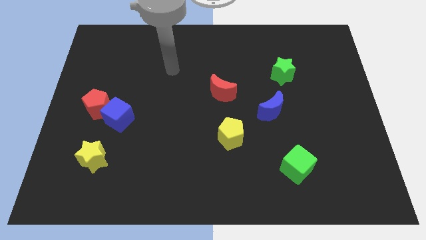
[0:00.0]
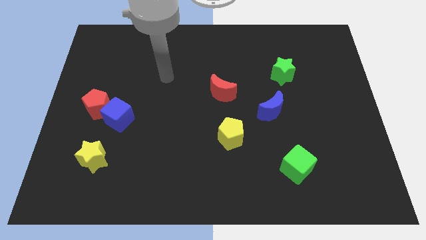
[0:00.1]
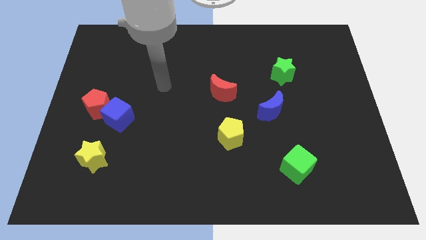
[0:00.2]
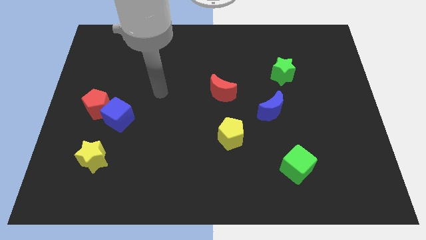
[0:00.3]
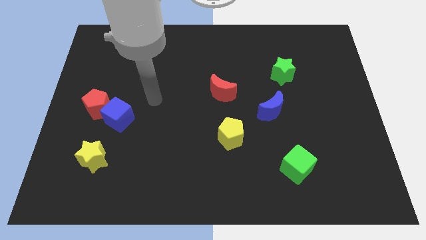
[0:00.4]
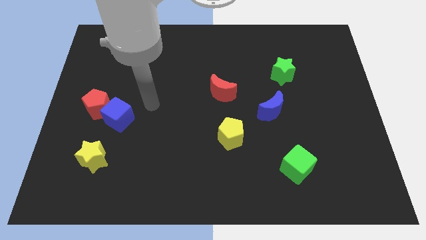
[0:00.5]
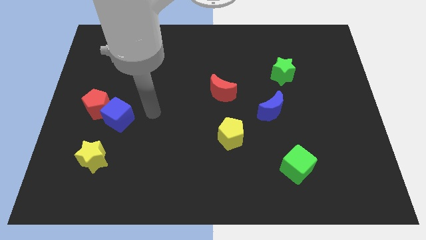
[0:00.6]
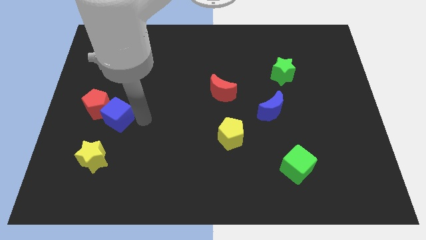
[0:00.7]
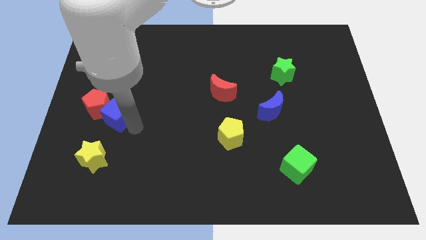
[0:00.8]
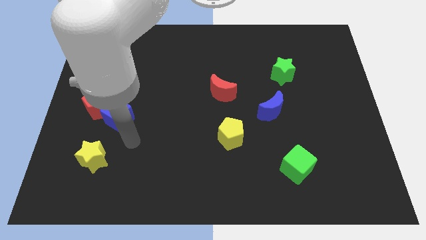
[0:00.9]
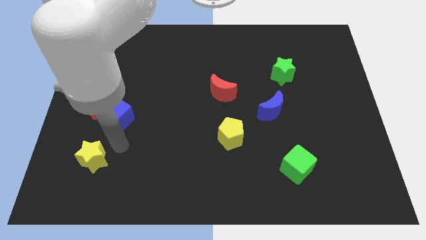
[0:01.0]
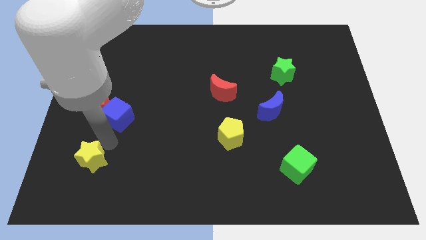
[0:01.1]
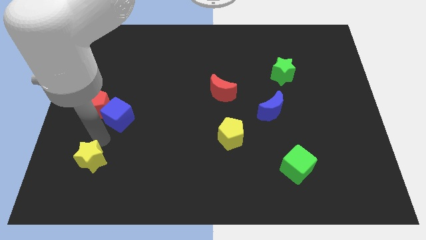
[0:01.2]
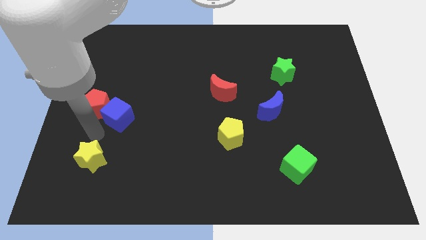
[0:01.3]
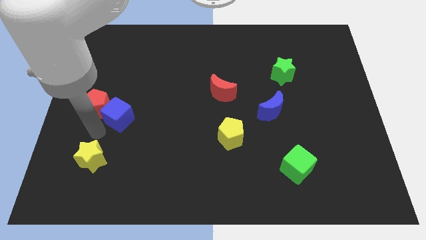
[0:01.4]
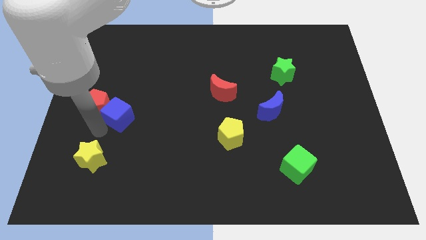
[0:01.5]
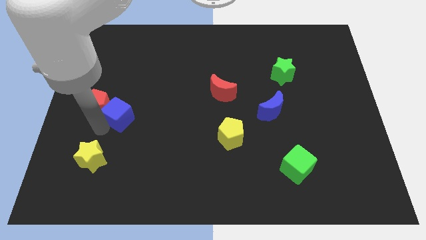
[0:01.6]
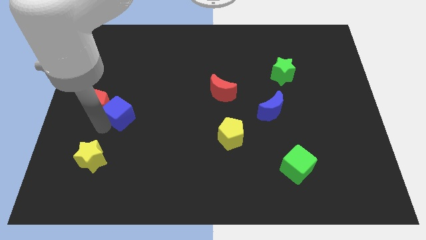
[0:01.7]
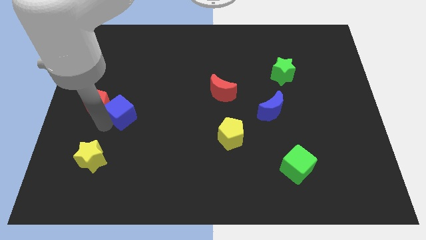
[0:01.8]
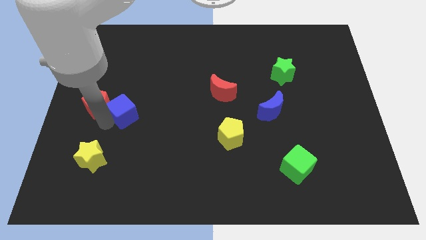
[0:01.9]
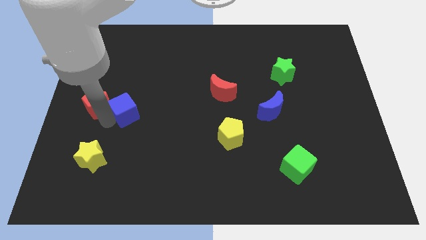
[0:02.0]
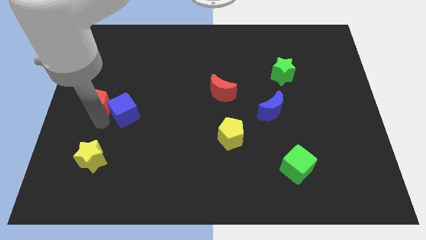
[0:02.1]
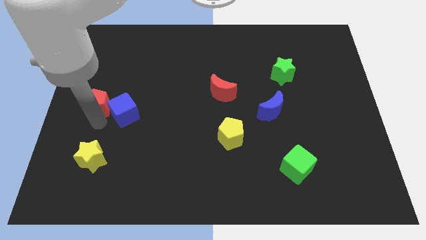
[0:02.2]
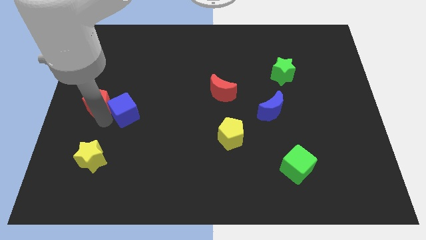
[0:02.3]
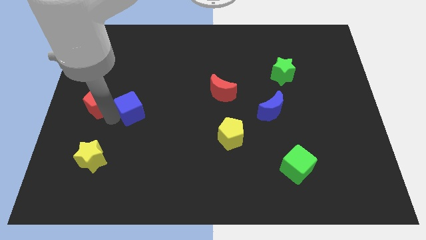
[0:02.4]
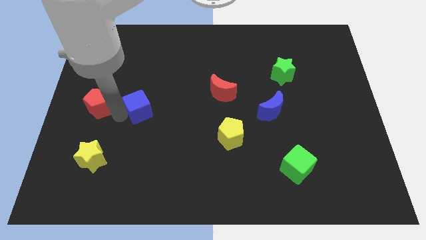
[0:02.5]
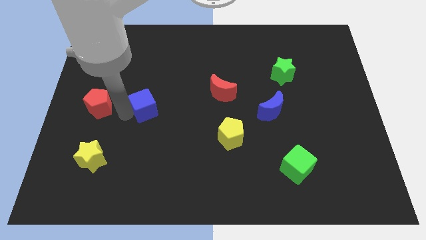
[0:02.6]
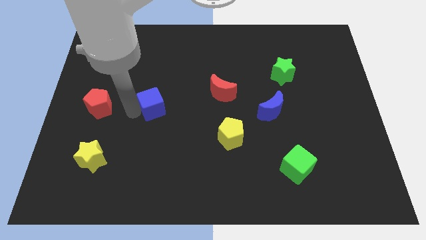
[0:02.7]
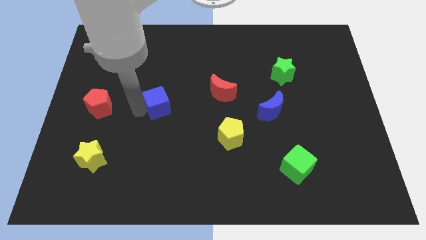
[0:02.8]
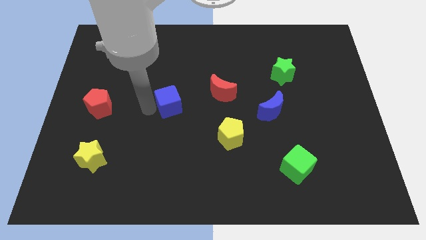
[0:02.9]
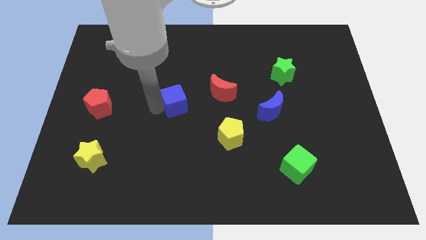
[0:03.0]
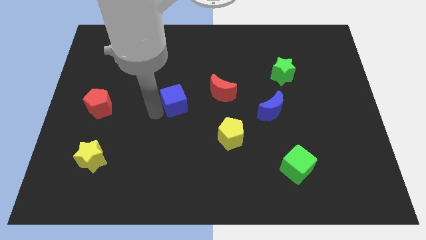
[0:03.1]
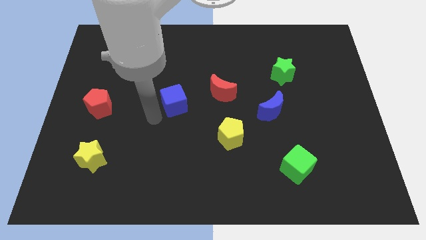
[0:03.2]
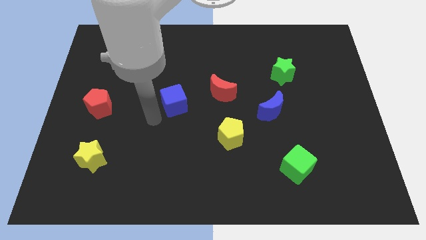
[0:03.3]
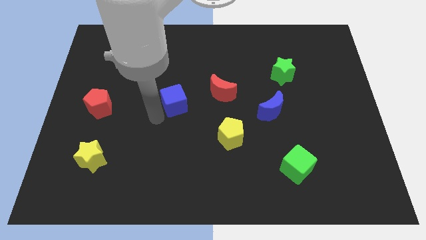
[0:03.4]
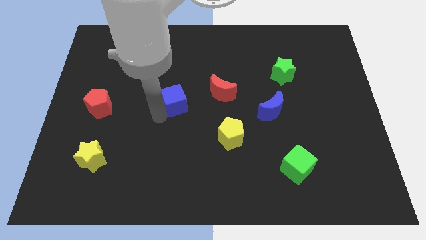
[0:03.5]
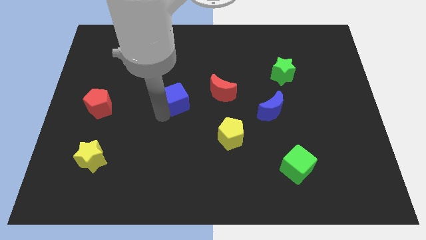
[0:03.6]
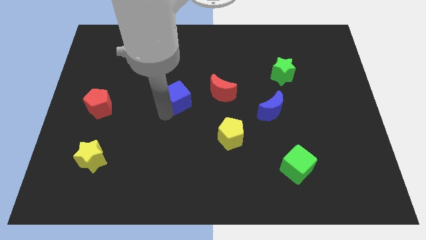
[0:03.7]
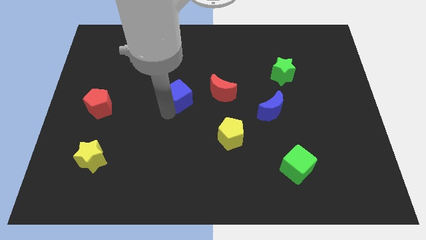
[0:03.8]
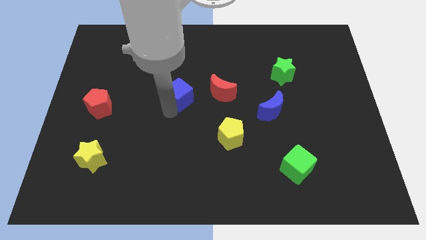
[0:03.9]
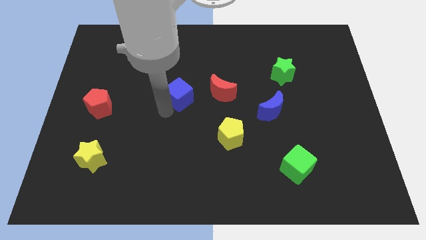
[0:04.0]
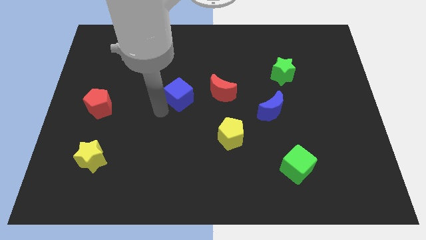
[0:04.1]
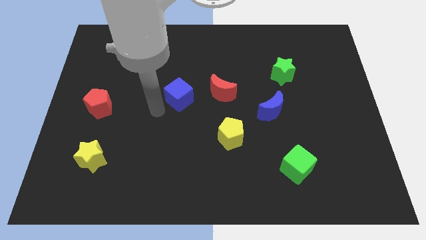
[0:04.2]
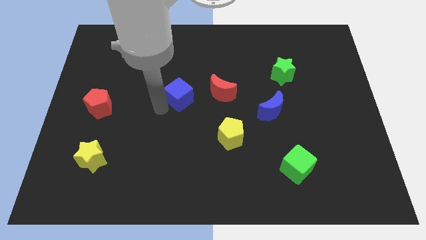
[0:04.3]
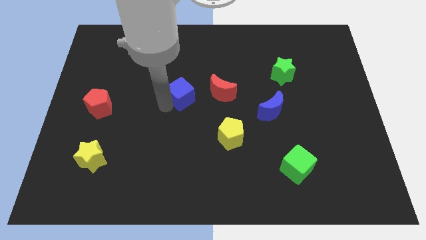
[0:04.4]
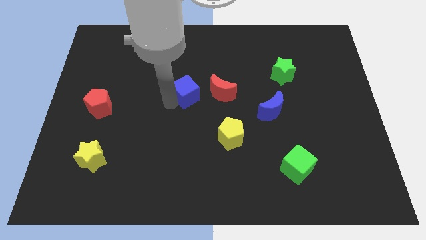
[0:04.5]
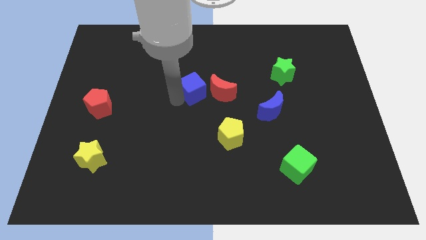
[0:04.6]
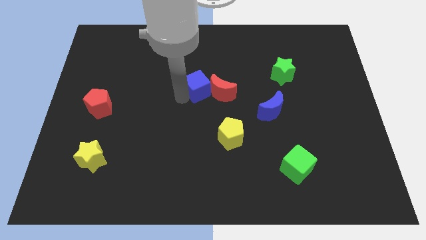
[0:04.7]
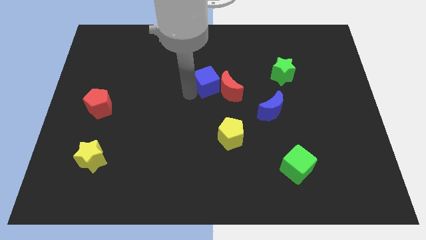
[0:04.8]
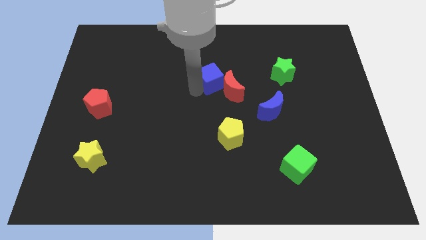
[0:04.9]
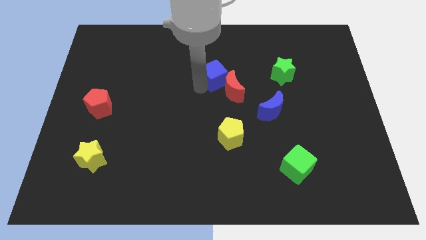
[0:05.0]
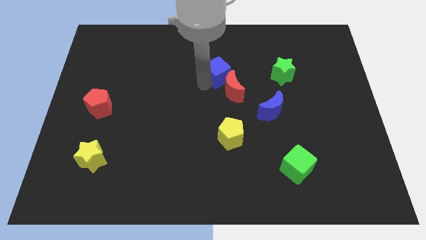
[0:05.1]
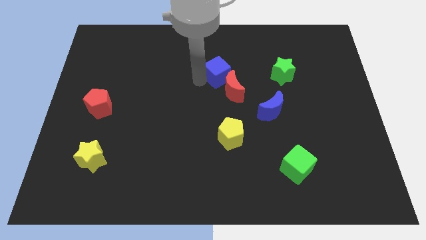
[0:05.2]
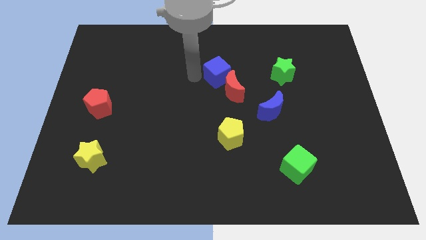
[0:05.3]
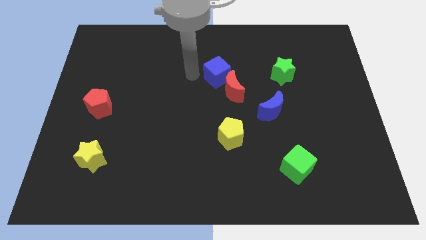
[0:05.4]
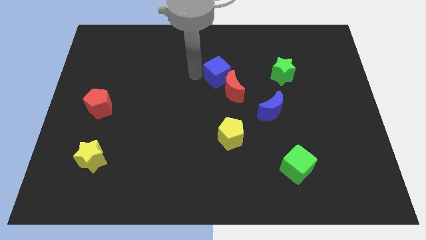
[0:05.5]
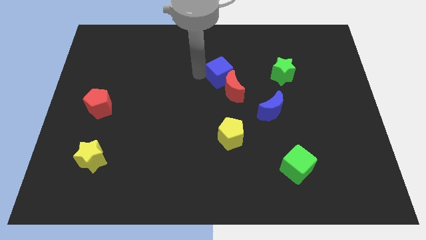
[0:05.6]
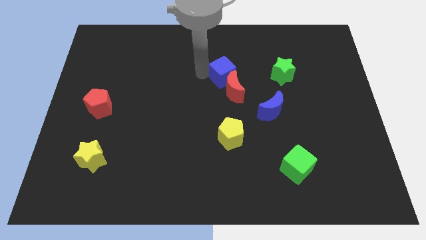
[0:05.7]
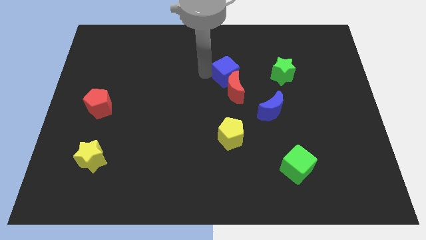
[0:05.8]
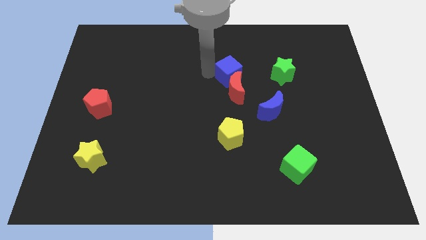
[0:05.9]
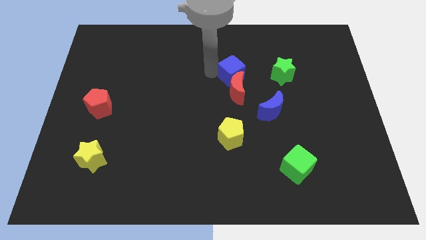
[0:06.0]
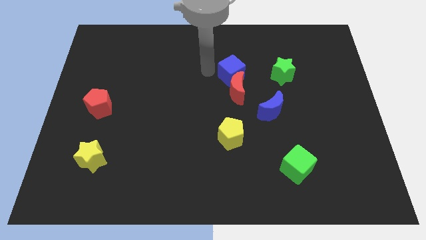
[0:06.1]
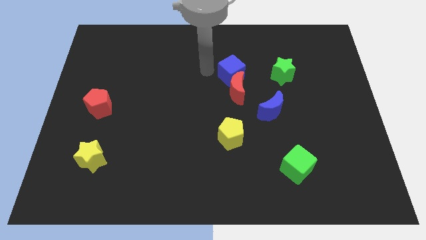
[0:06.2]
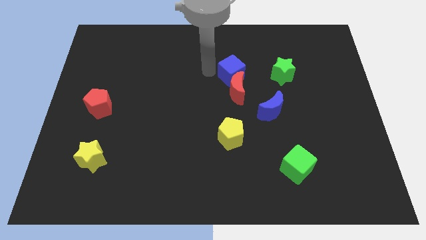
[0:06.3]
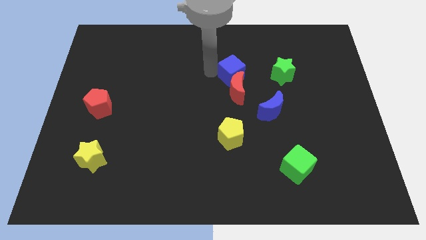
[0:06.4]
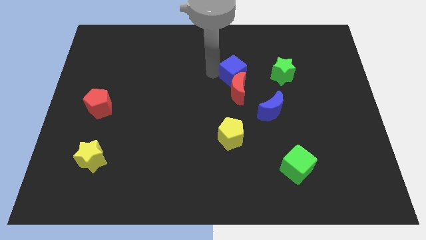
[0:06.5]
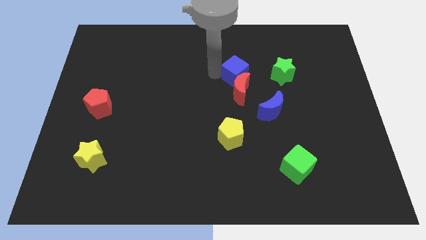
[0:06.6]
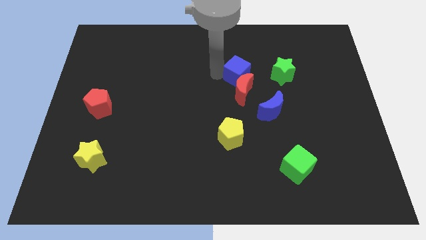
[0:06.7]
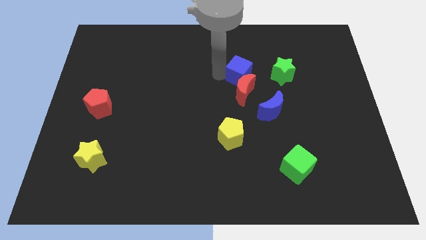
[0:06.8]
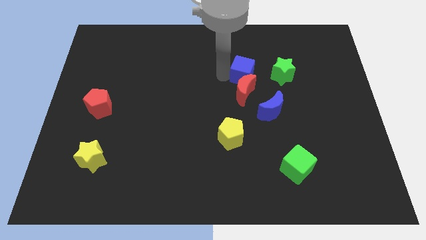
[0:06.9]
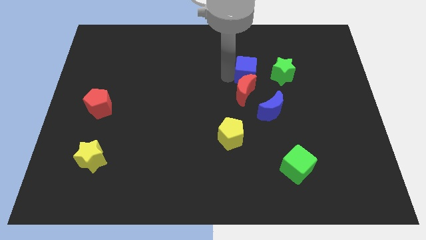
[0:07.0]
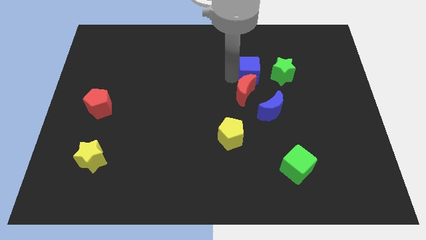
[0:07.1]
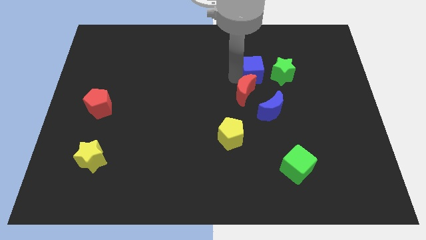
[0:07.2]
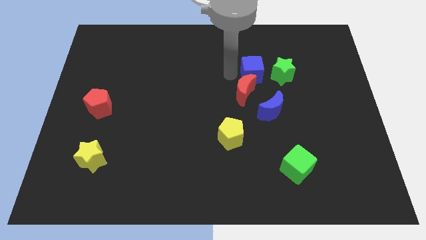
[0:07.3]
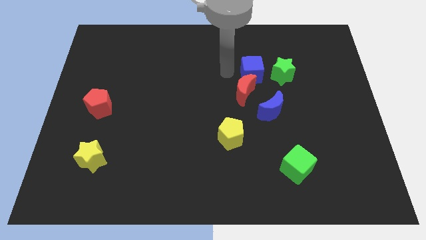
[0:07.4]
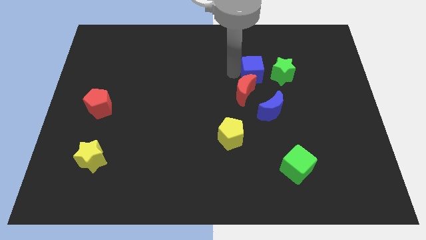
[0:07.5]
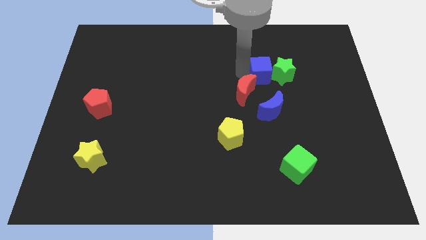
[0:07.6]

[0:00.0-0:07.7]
put the blue cube next to the green star
